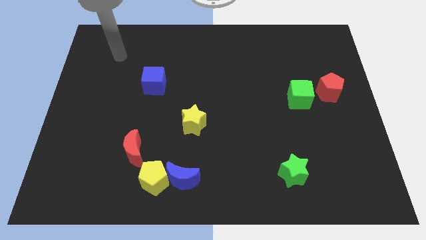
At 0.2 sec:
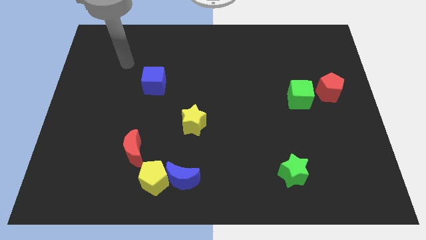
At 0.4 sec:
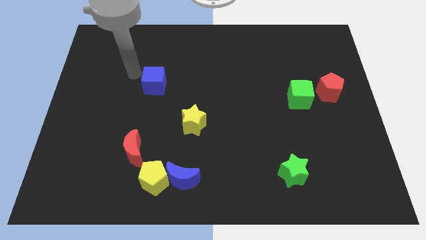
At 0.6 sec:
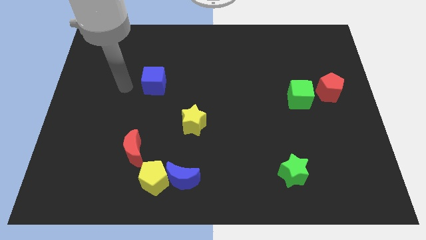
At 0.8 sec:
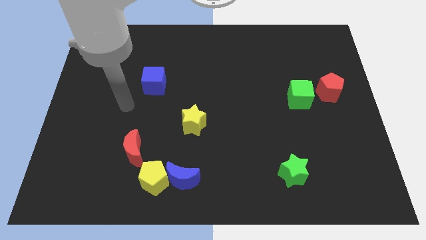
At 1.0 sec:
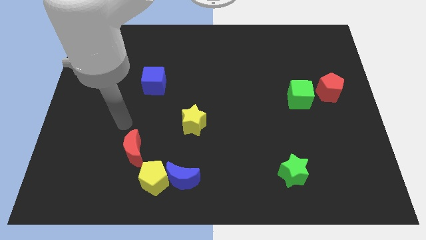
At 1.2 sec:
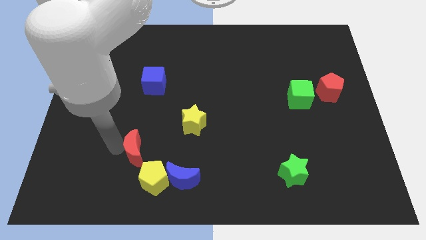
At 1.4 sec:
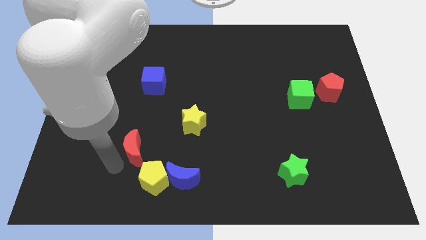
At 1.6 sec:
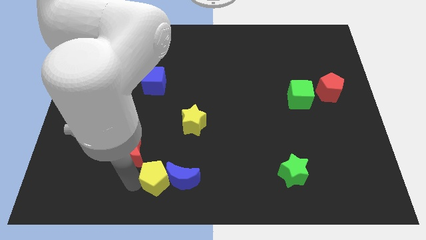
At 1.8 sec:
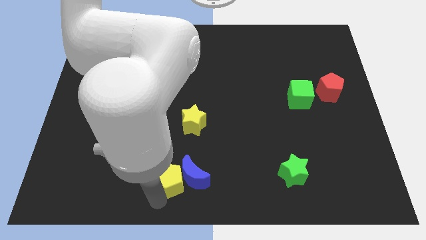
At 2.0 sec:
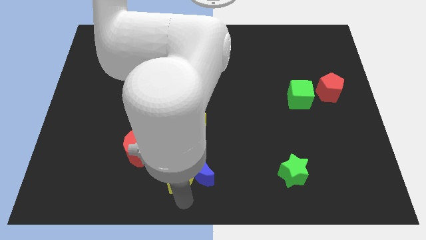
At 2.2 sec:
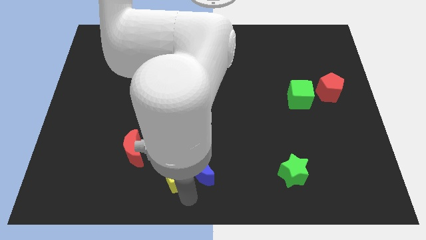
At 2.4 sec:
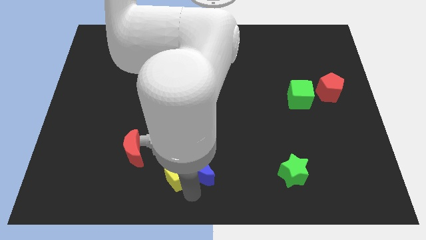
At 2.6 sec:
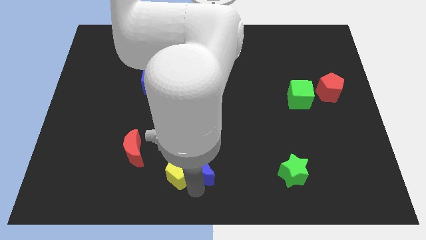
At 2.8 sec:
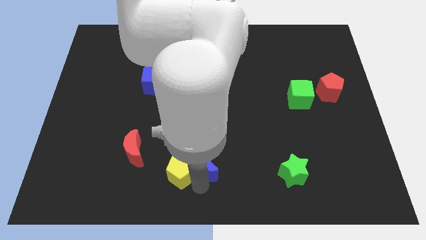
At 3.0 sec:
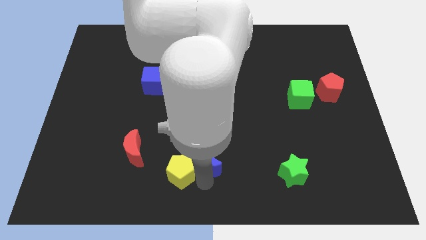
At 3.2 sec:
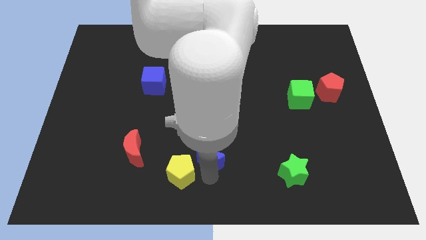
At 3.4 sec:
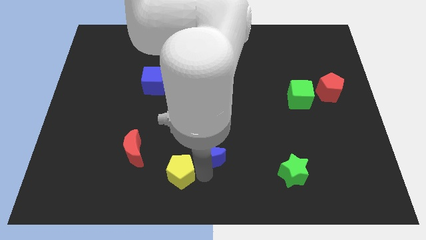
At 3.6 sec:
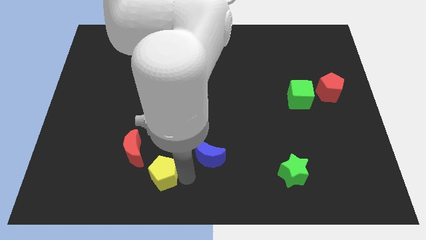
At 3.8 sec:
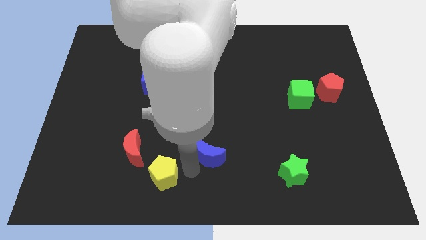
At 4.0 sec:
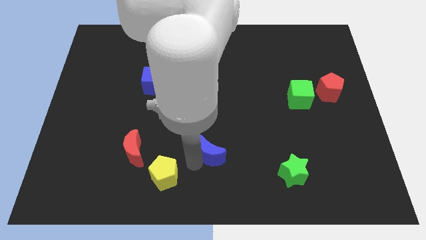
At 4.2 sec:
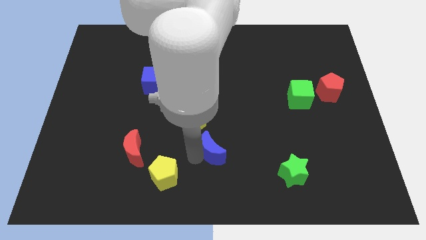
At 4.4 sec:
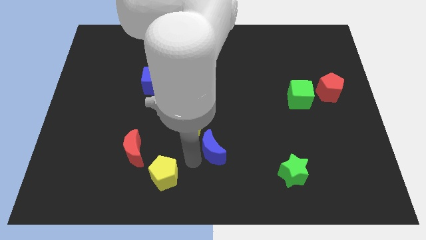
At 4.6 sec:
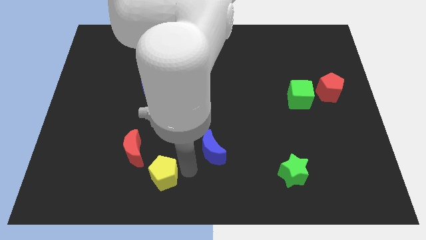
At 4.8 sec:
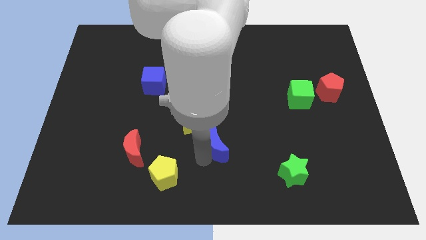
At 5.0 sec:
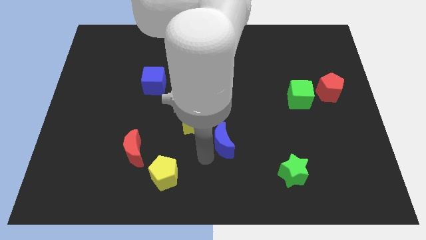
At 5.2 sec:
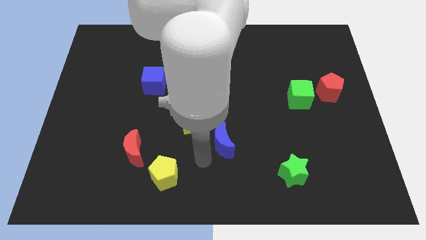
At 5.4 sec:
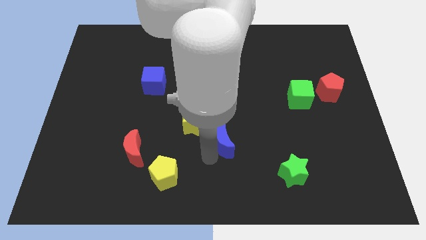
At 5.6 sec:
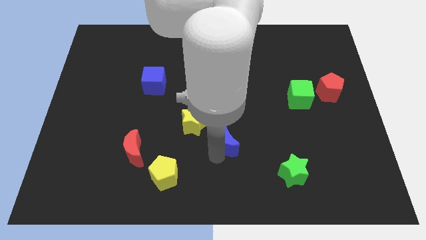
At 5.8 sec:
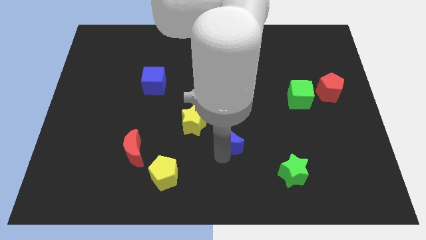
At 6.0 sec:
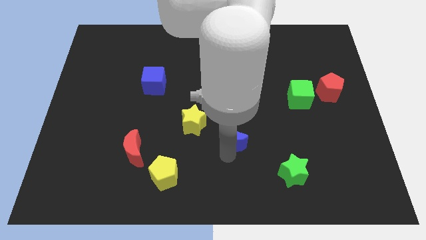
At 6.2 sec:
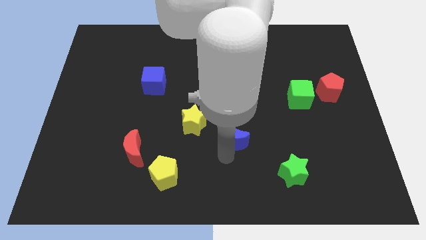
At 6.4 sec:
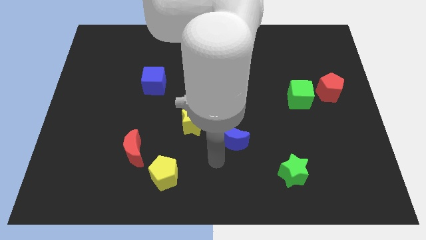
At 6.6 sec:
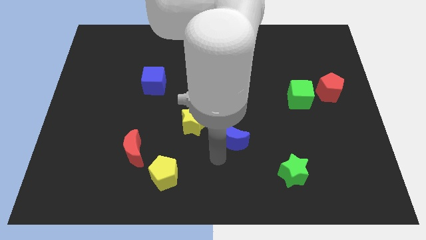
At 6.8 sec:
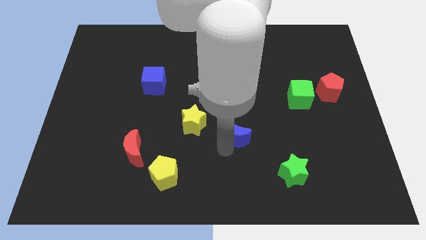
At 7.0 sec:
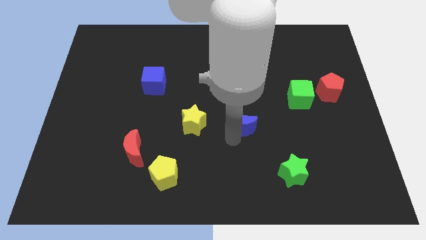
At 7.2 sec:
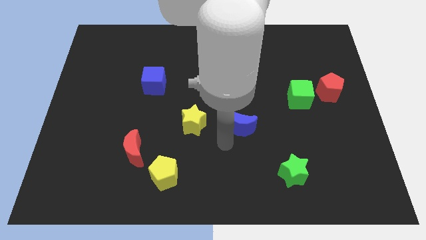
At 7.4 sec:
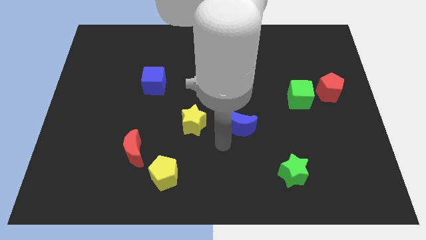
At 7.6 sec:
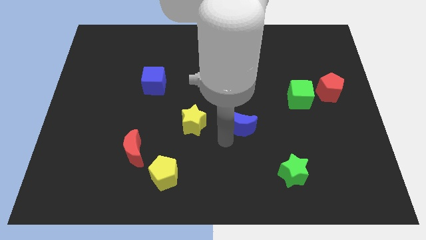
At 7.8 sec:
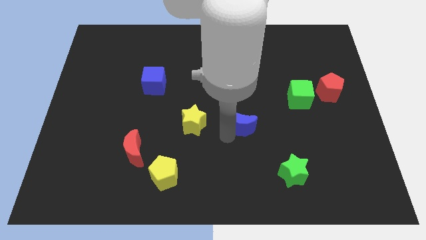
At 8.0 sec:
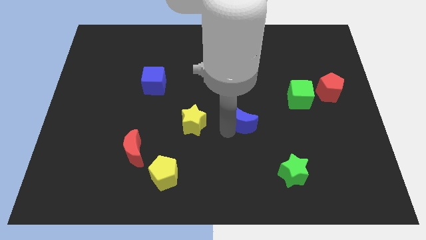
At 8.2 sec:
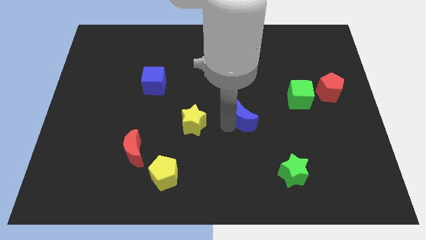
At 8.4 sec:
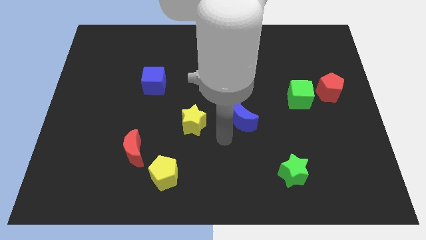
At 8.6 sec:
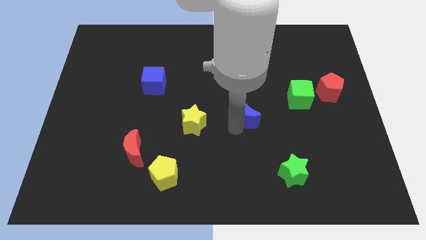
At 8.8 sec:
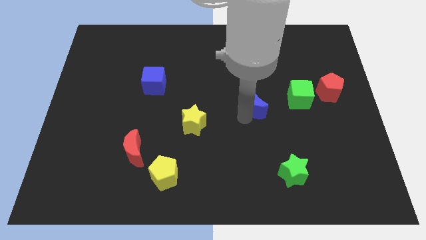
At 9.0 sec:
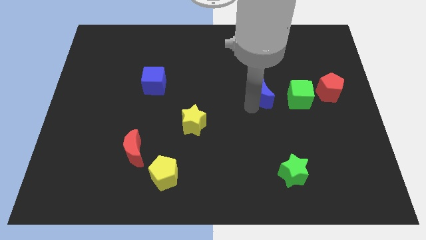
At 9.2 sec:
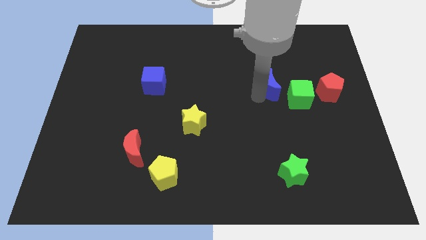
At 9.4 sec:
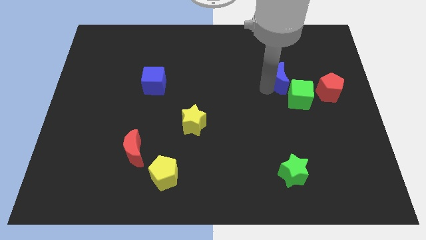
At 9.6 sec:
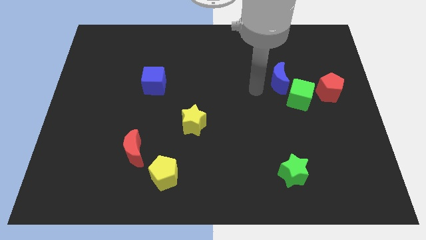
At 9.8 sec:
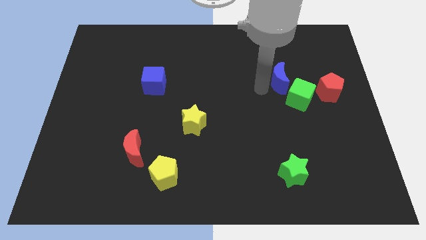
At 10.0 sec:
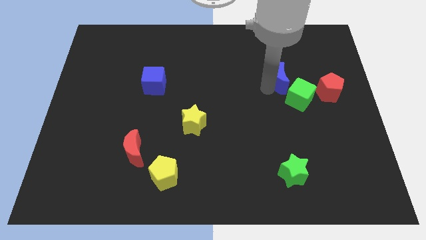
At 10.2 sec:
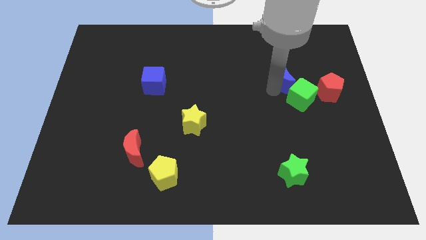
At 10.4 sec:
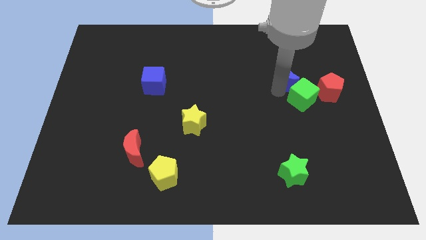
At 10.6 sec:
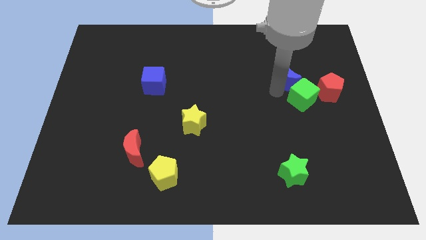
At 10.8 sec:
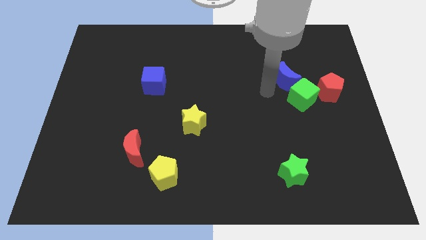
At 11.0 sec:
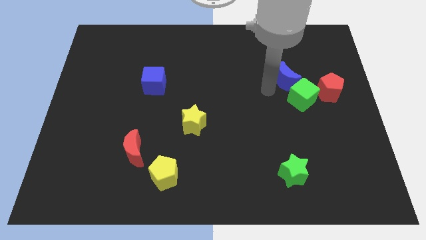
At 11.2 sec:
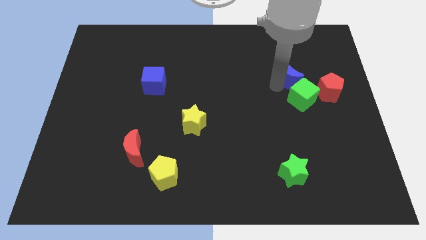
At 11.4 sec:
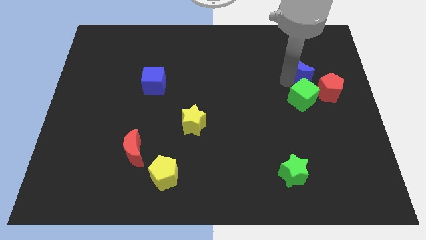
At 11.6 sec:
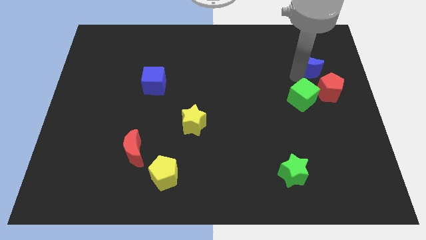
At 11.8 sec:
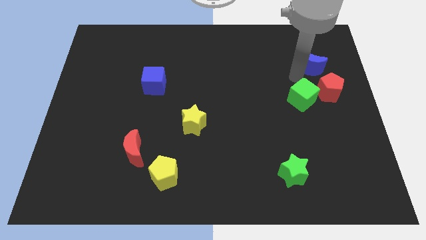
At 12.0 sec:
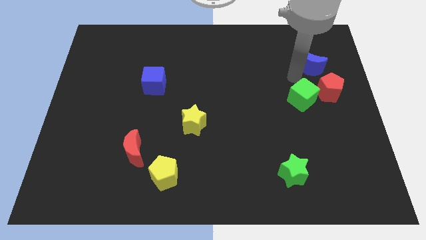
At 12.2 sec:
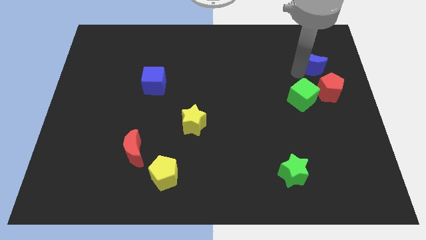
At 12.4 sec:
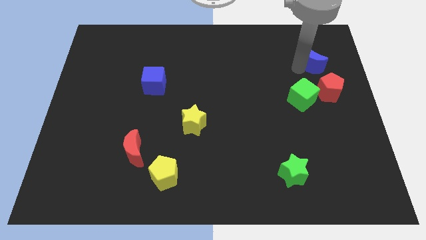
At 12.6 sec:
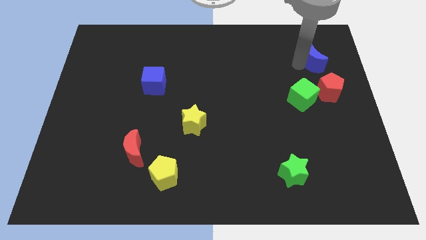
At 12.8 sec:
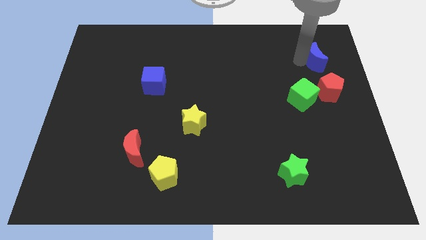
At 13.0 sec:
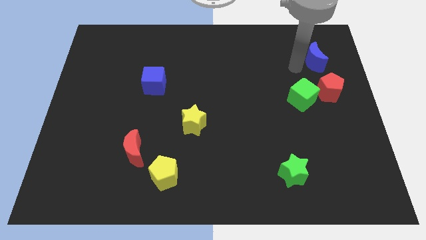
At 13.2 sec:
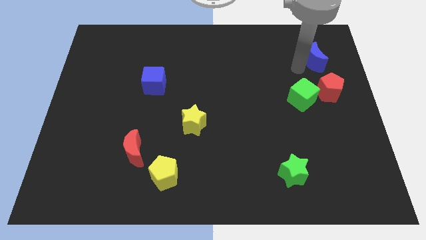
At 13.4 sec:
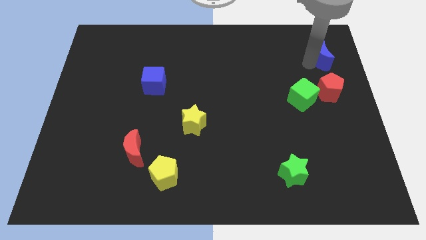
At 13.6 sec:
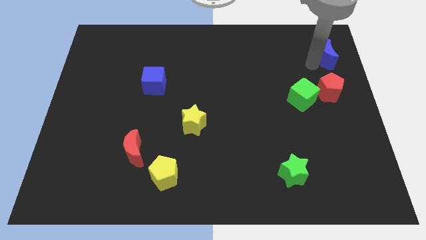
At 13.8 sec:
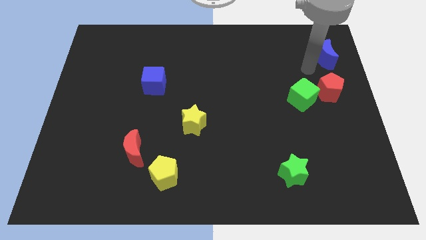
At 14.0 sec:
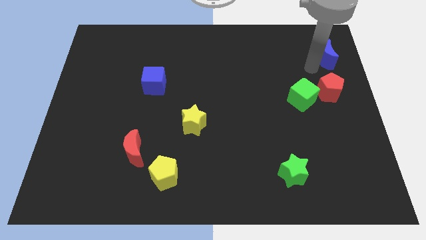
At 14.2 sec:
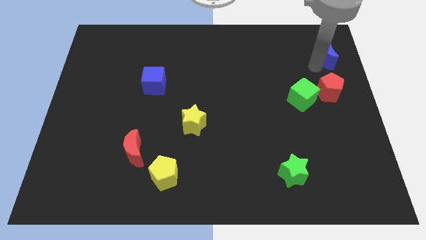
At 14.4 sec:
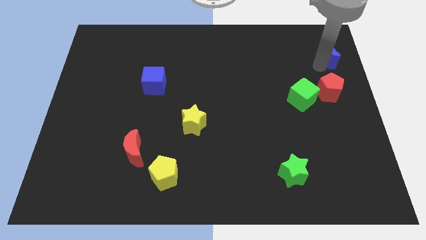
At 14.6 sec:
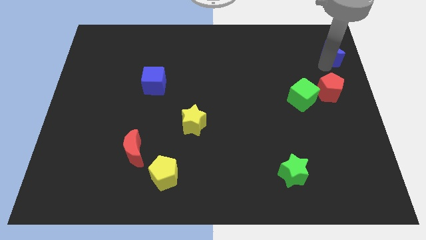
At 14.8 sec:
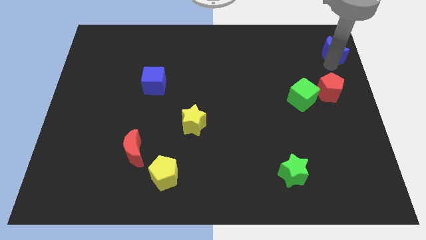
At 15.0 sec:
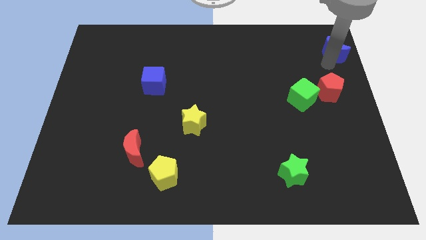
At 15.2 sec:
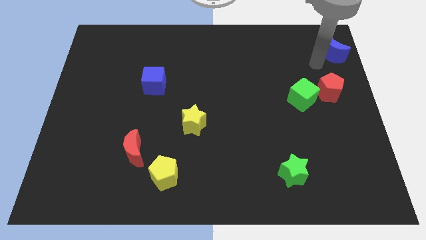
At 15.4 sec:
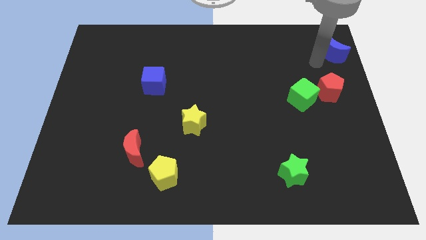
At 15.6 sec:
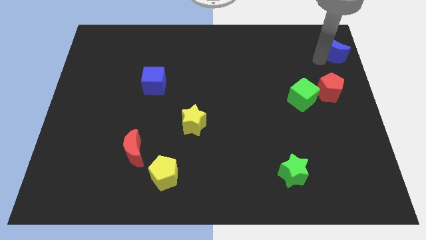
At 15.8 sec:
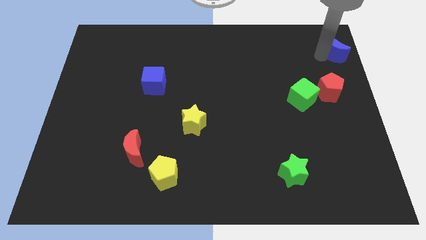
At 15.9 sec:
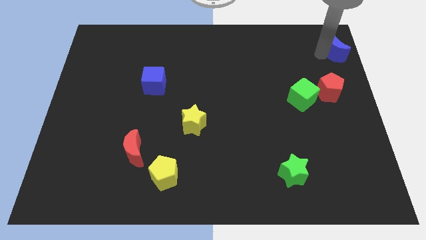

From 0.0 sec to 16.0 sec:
put the blue moon to the top right corner
